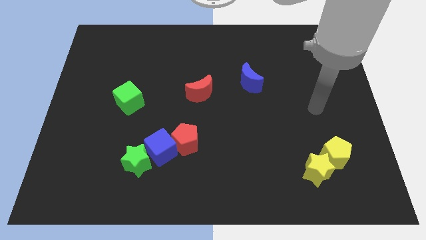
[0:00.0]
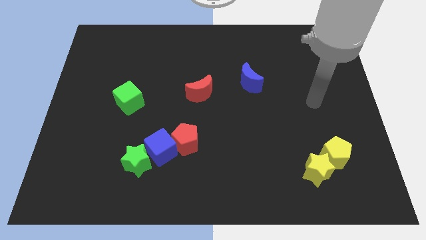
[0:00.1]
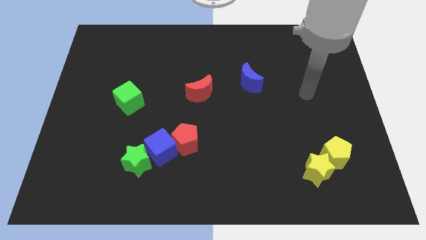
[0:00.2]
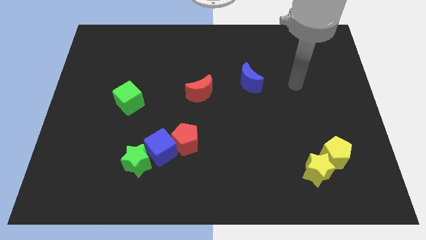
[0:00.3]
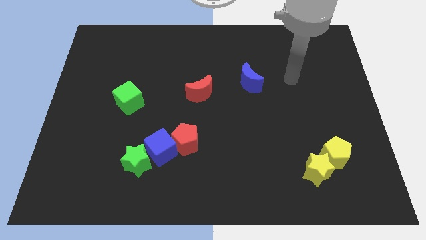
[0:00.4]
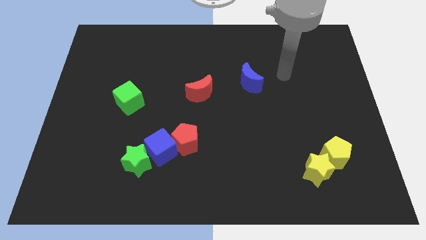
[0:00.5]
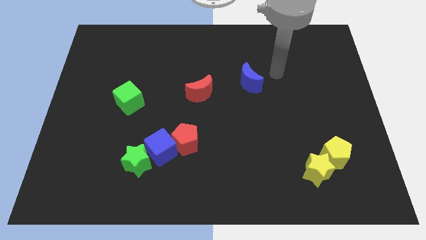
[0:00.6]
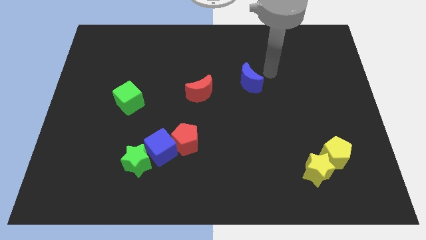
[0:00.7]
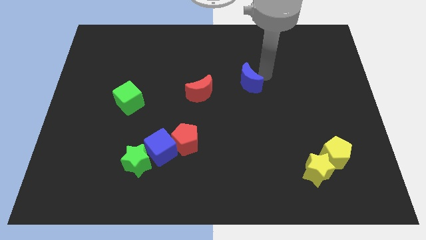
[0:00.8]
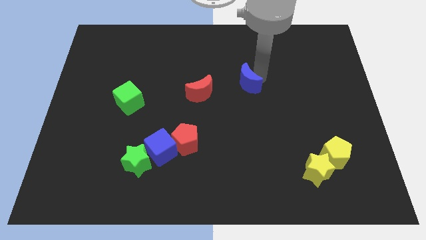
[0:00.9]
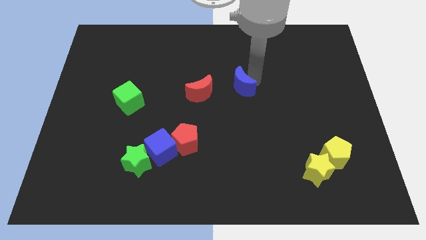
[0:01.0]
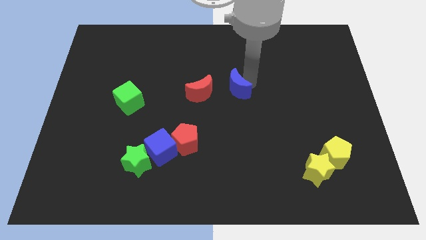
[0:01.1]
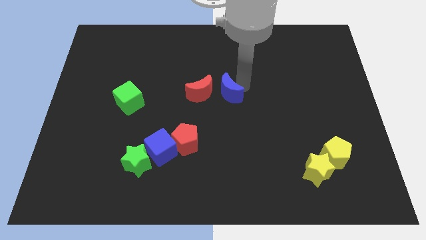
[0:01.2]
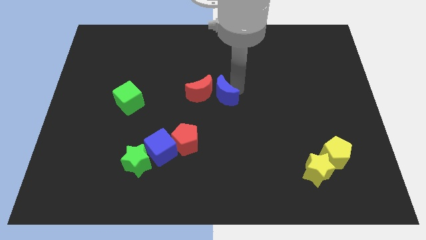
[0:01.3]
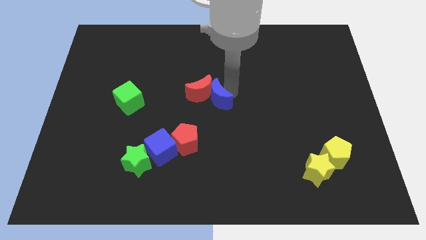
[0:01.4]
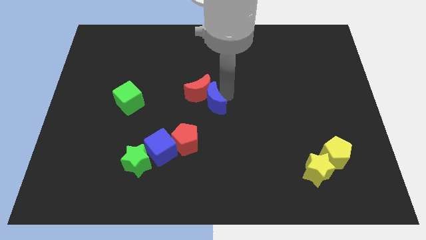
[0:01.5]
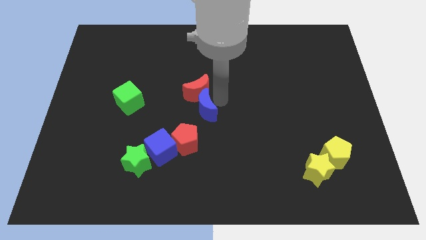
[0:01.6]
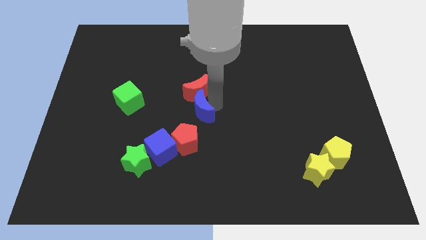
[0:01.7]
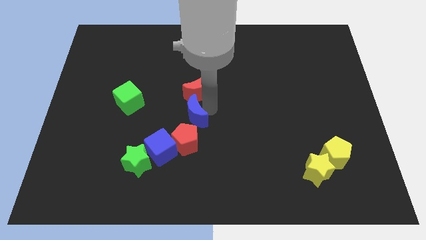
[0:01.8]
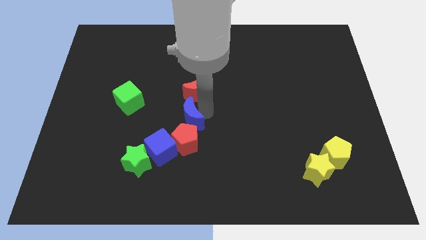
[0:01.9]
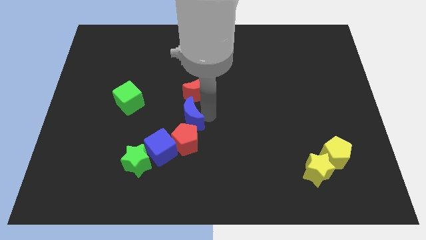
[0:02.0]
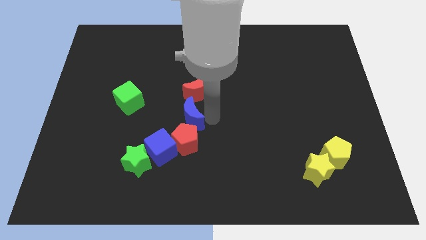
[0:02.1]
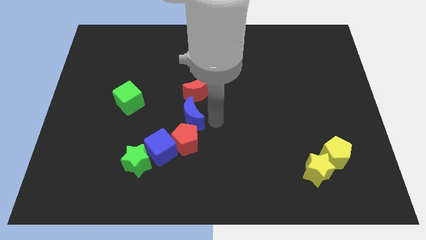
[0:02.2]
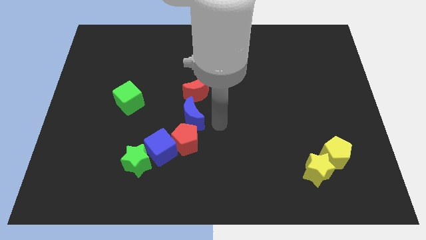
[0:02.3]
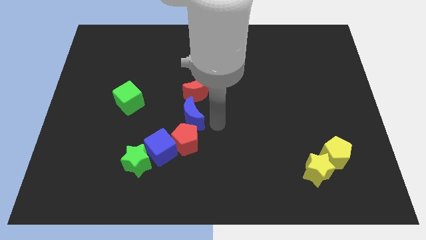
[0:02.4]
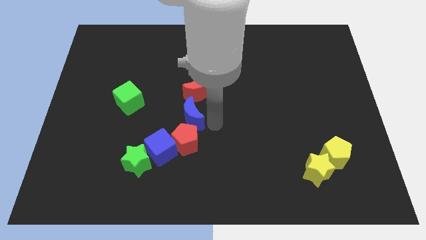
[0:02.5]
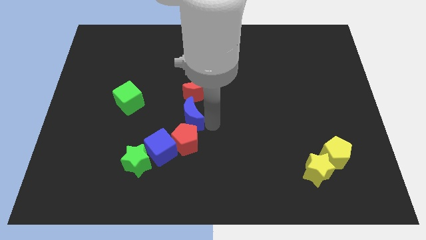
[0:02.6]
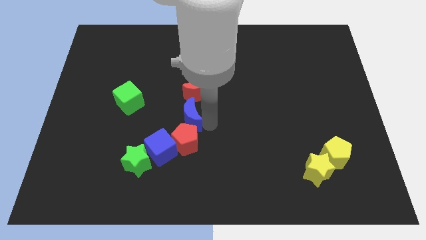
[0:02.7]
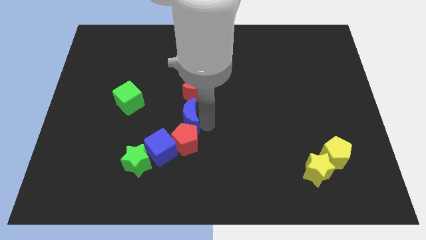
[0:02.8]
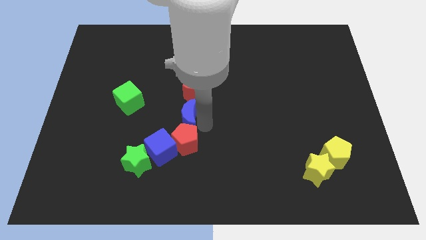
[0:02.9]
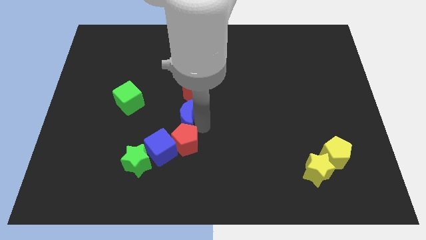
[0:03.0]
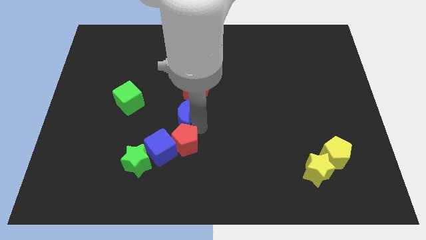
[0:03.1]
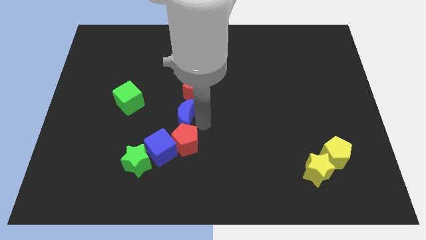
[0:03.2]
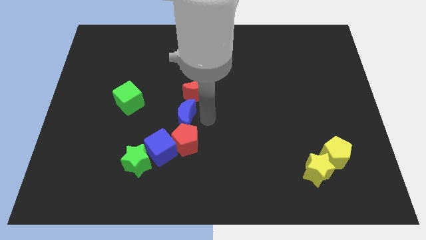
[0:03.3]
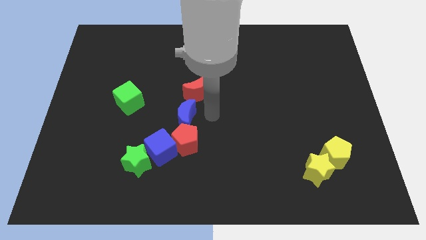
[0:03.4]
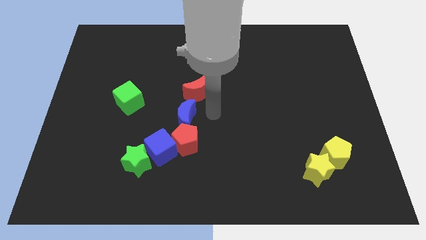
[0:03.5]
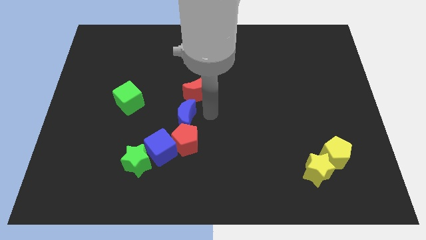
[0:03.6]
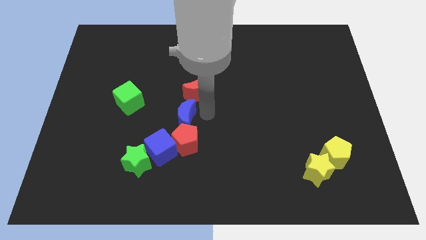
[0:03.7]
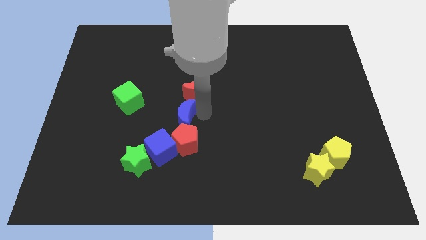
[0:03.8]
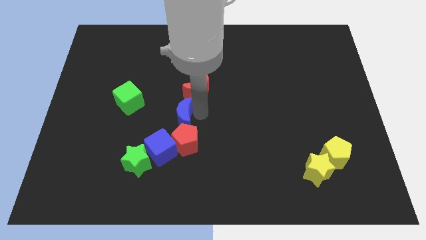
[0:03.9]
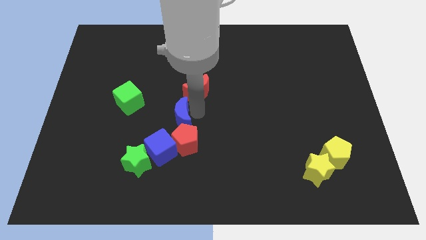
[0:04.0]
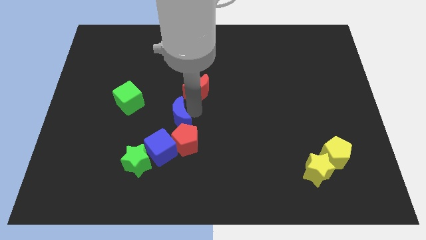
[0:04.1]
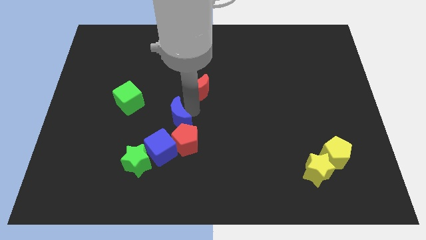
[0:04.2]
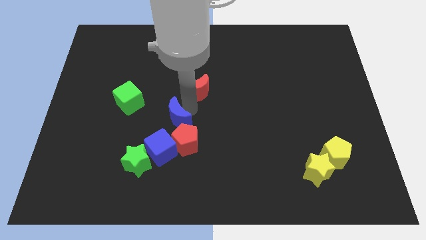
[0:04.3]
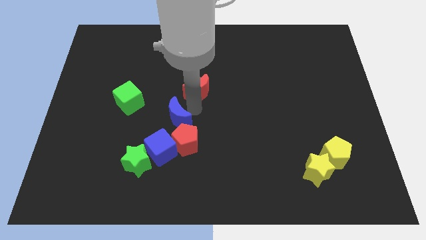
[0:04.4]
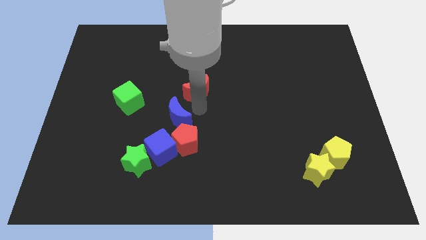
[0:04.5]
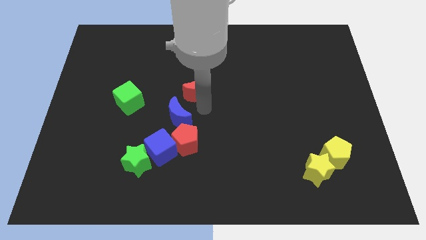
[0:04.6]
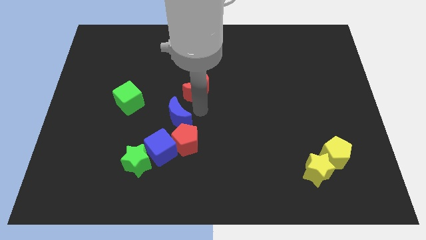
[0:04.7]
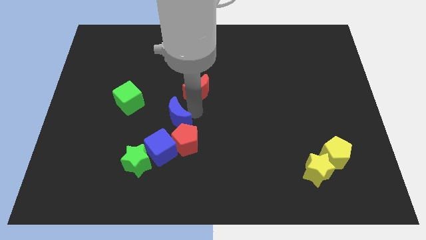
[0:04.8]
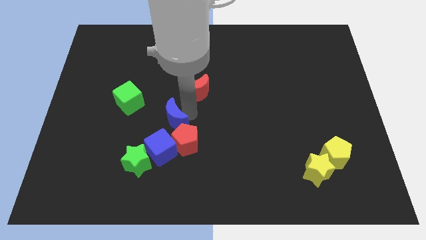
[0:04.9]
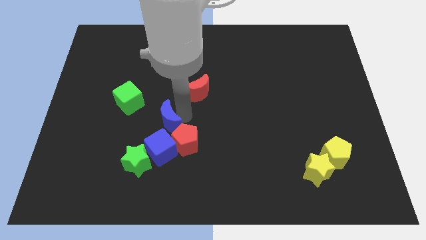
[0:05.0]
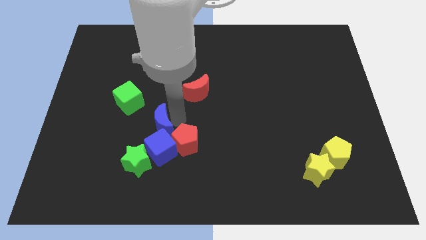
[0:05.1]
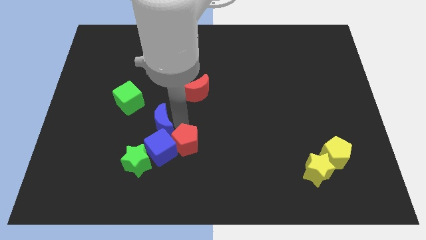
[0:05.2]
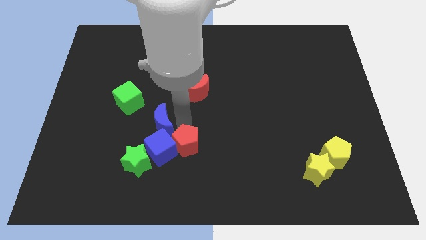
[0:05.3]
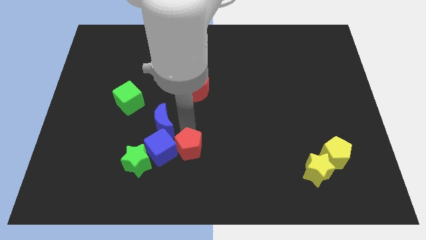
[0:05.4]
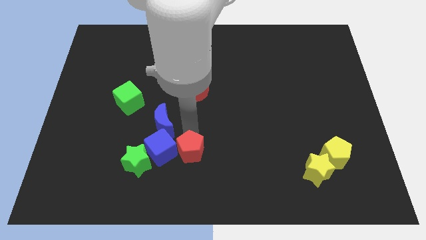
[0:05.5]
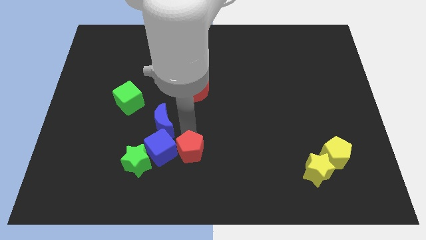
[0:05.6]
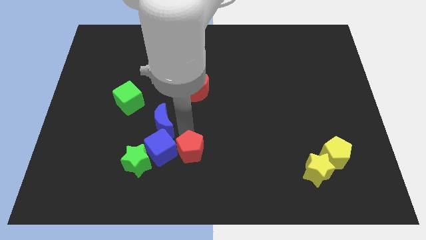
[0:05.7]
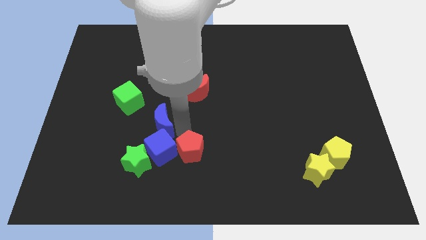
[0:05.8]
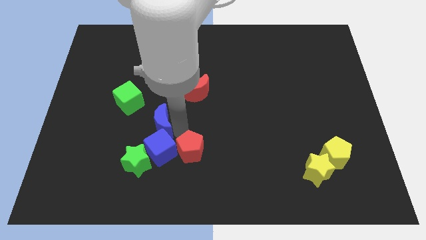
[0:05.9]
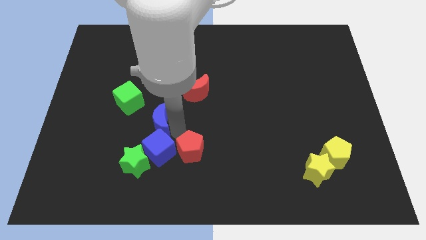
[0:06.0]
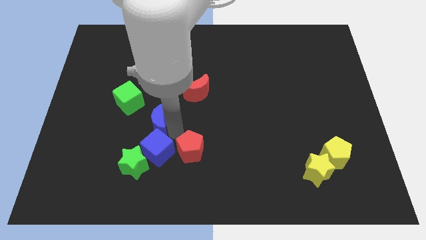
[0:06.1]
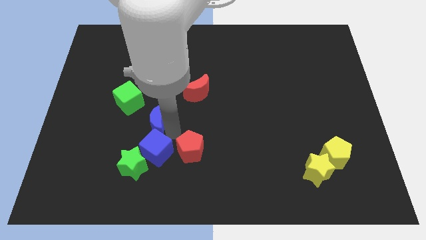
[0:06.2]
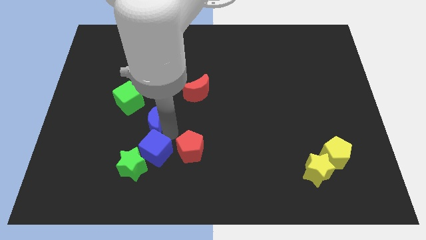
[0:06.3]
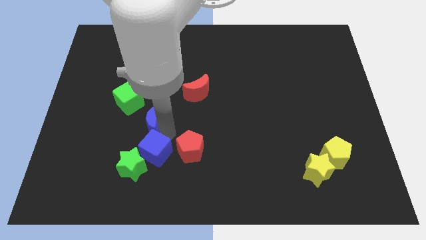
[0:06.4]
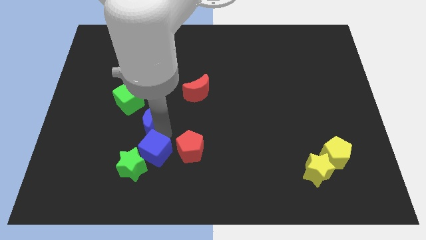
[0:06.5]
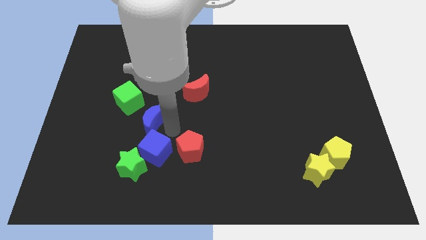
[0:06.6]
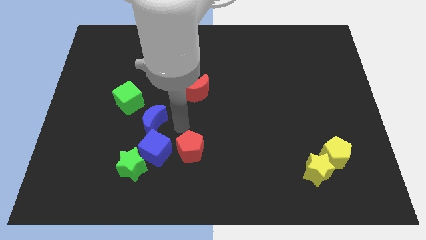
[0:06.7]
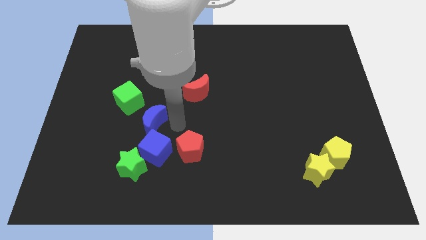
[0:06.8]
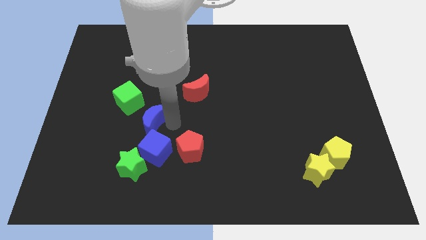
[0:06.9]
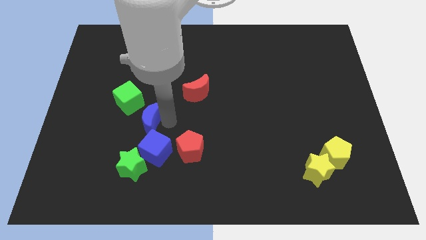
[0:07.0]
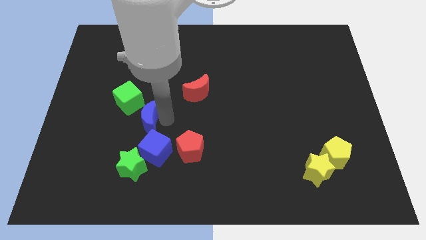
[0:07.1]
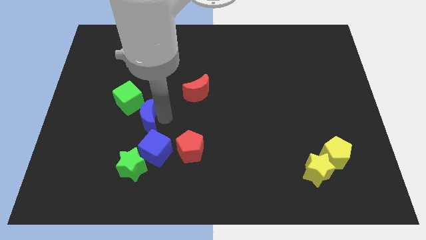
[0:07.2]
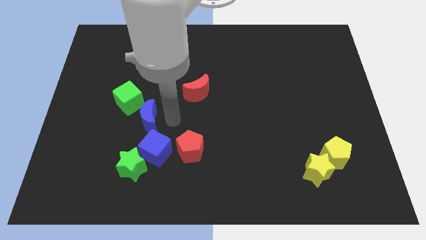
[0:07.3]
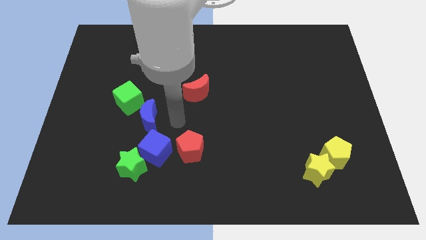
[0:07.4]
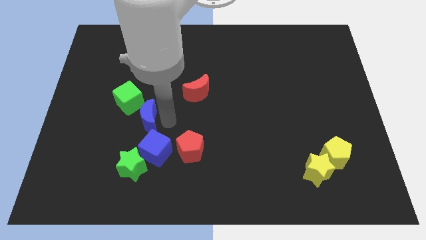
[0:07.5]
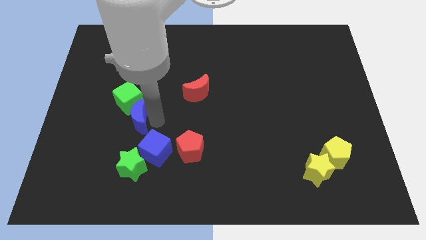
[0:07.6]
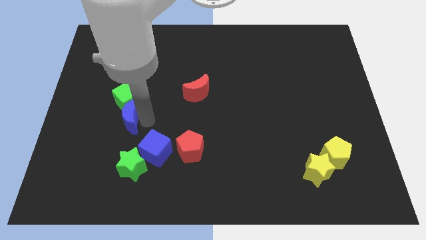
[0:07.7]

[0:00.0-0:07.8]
push the blue moon to the bottom left of the green cube
